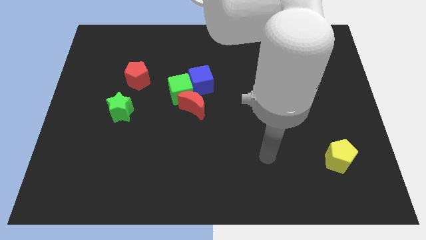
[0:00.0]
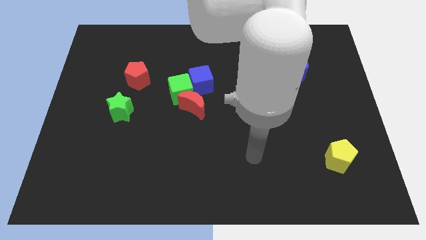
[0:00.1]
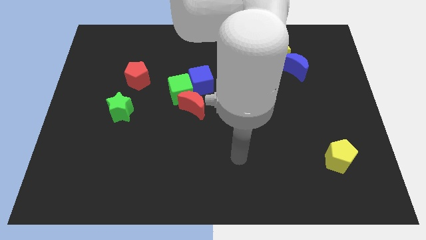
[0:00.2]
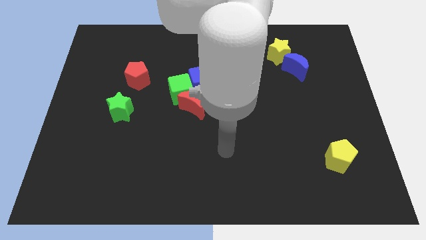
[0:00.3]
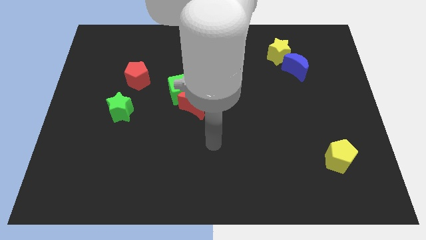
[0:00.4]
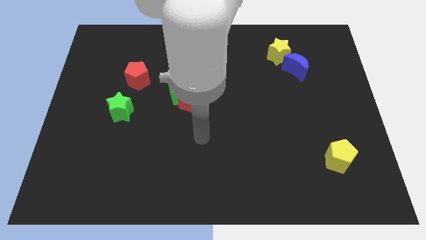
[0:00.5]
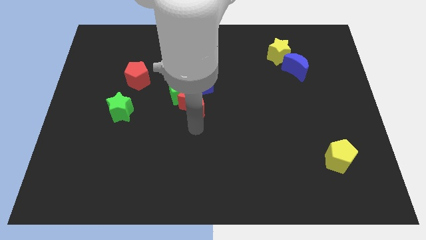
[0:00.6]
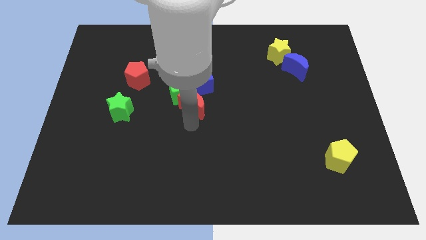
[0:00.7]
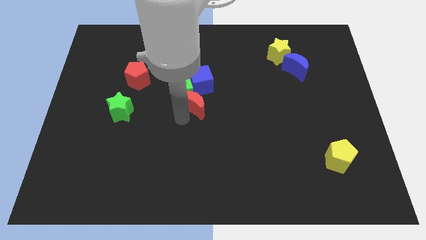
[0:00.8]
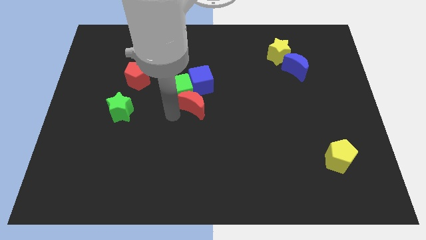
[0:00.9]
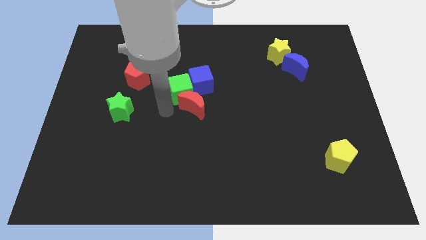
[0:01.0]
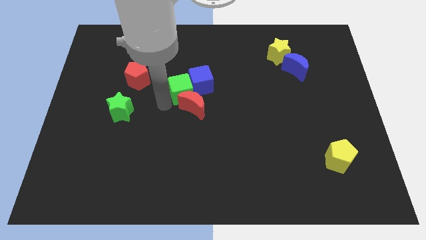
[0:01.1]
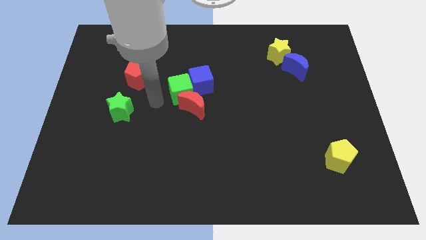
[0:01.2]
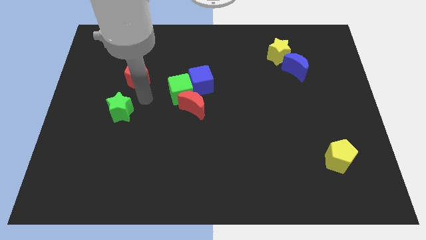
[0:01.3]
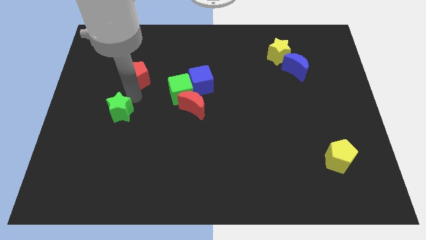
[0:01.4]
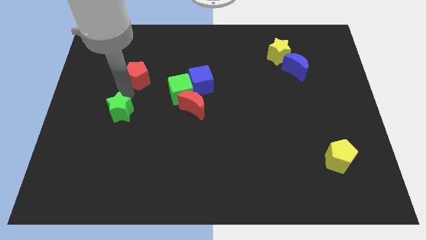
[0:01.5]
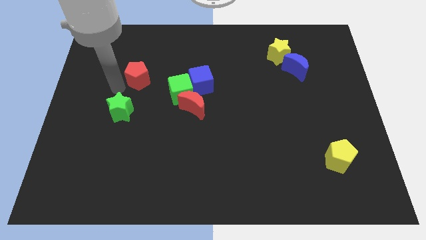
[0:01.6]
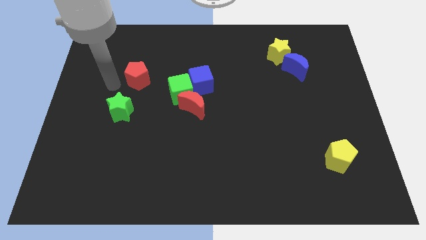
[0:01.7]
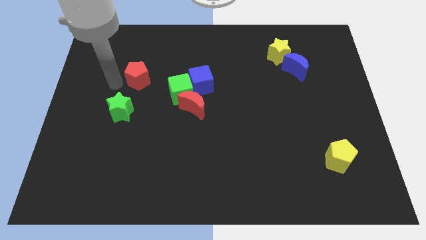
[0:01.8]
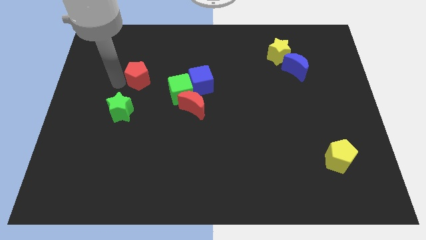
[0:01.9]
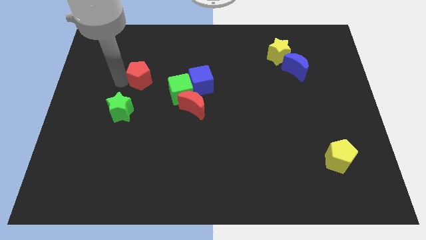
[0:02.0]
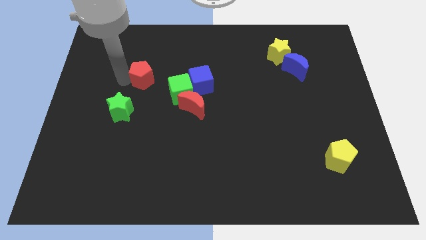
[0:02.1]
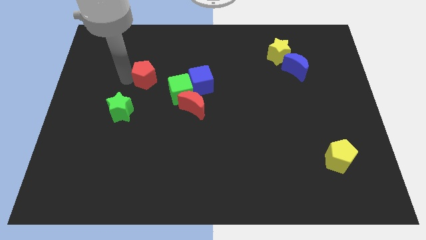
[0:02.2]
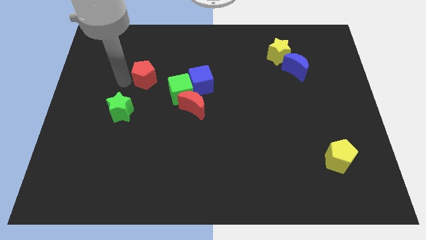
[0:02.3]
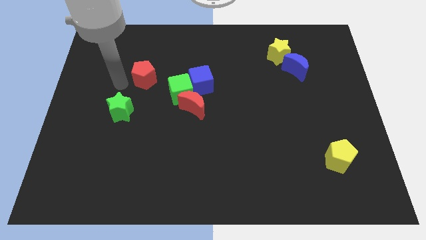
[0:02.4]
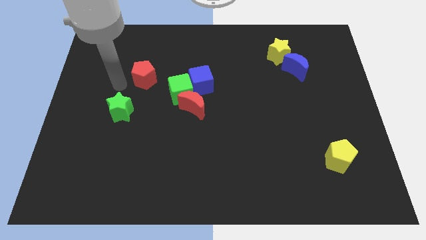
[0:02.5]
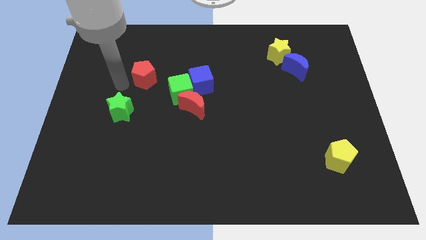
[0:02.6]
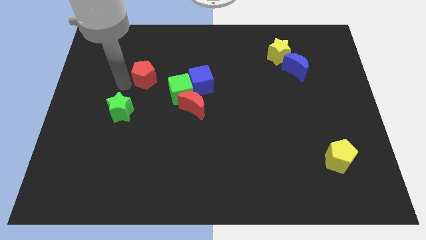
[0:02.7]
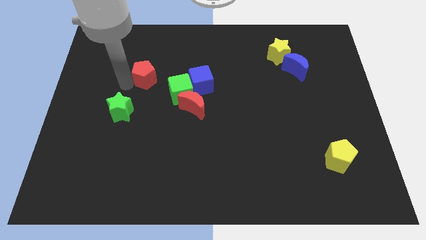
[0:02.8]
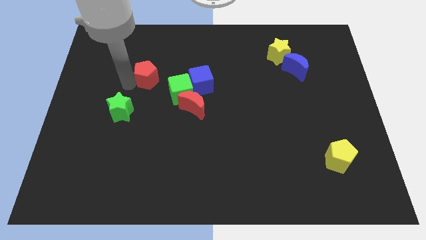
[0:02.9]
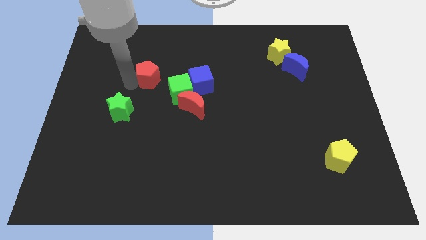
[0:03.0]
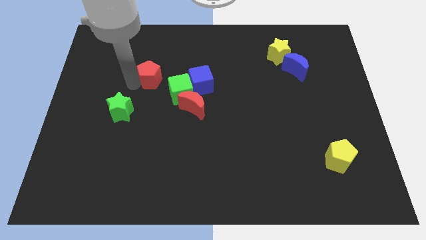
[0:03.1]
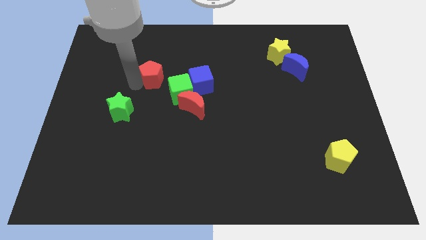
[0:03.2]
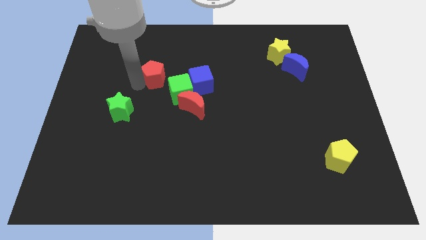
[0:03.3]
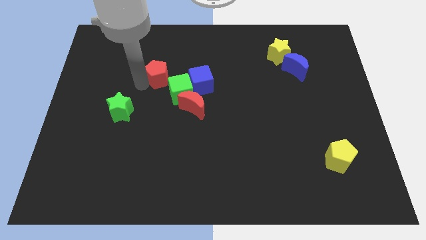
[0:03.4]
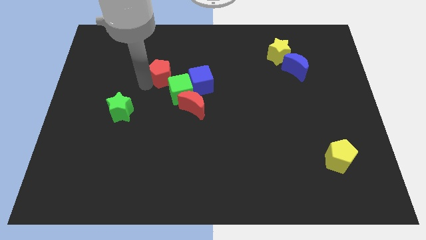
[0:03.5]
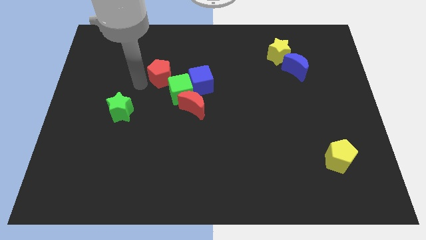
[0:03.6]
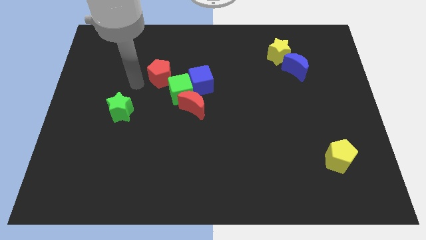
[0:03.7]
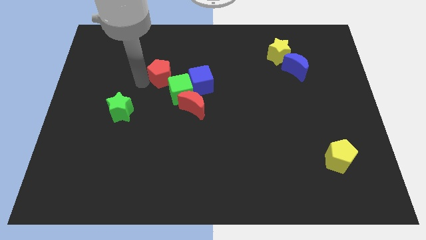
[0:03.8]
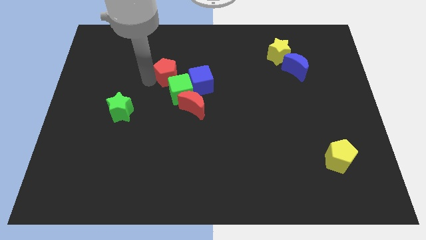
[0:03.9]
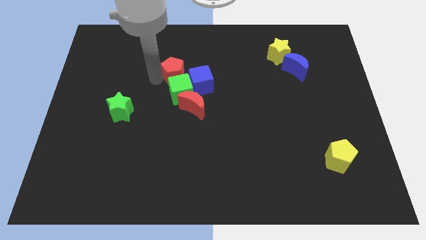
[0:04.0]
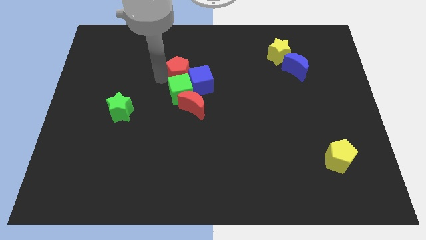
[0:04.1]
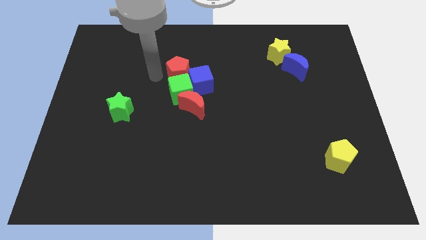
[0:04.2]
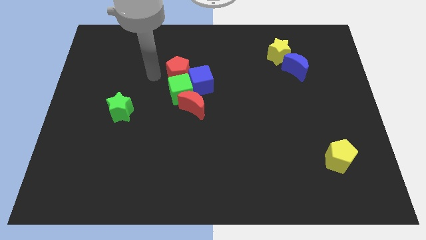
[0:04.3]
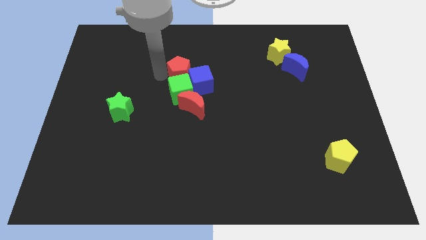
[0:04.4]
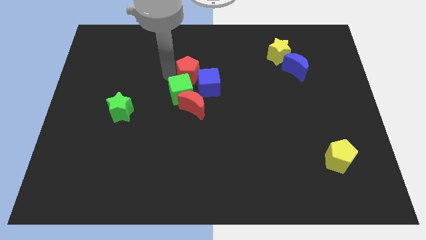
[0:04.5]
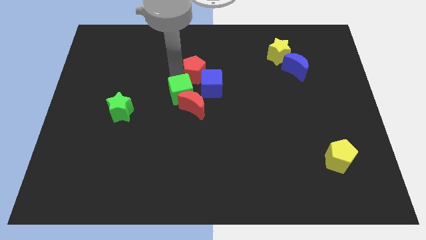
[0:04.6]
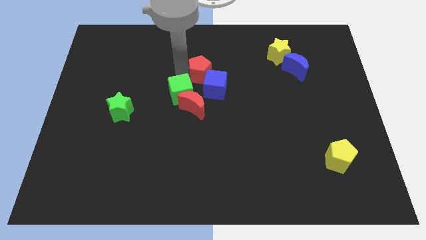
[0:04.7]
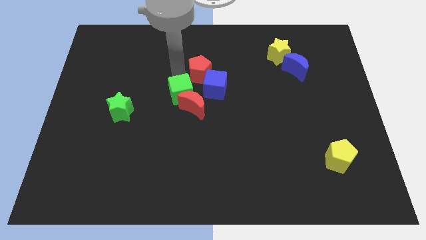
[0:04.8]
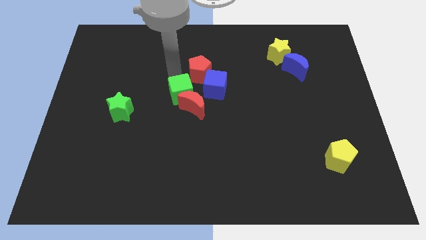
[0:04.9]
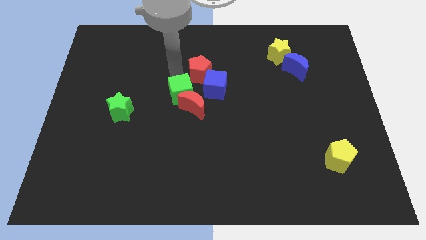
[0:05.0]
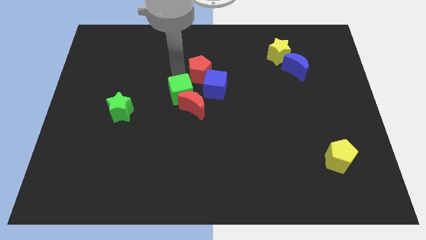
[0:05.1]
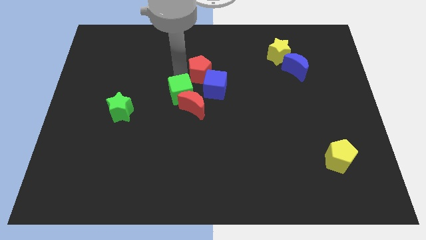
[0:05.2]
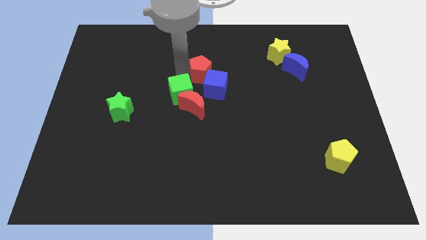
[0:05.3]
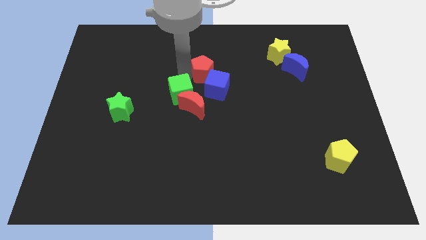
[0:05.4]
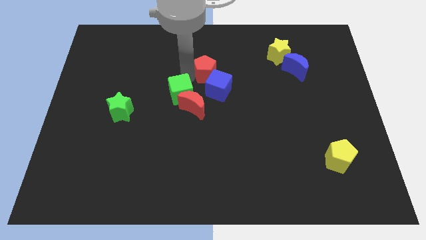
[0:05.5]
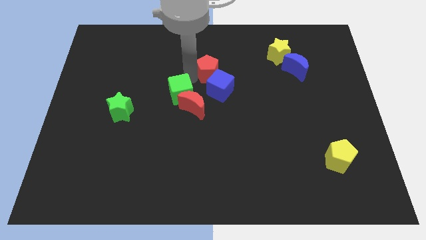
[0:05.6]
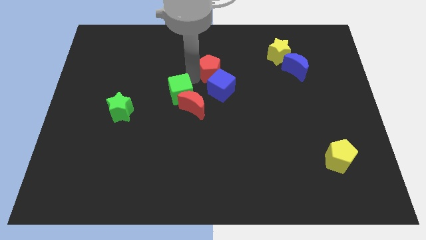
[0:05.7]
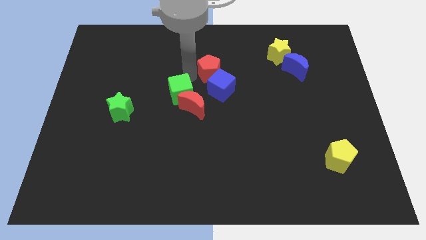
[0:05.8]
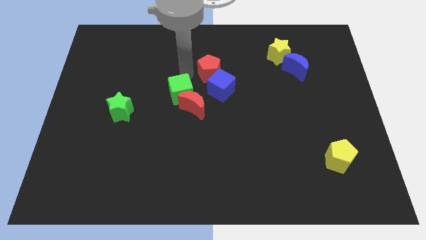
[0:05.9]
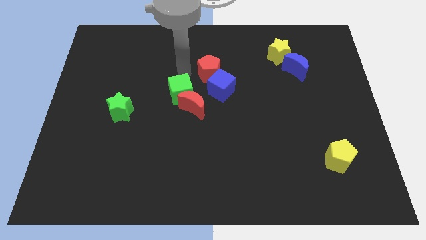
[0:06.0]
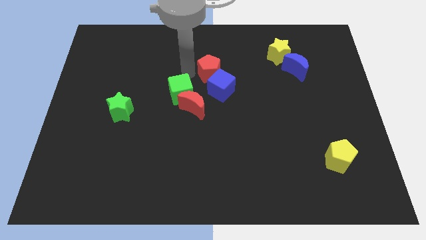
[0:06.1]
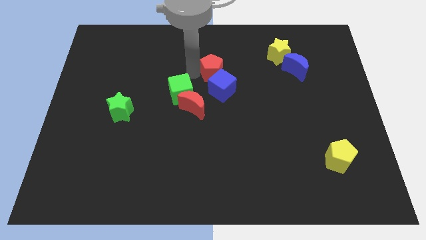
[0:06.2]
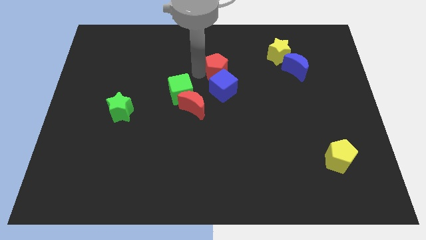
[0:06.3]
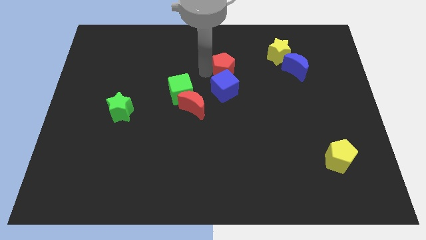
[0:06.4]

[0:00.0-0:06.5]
slide the red pentagon to the right

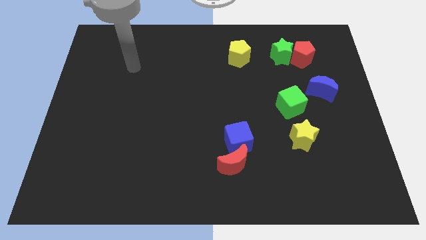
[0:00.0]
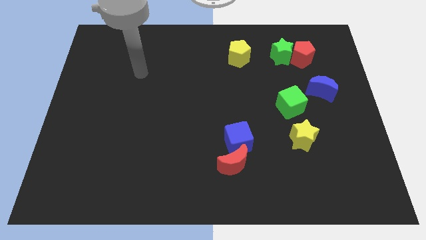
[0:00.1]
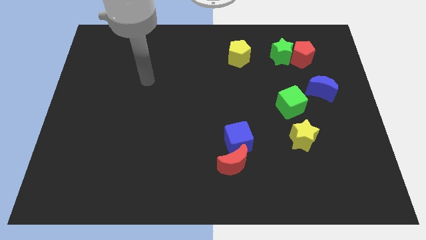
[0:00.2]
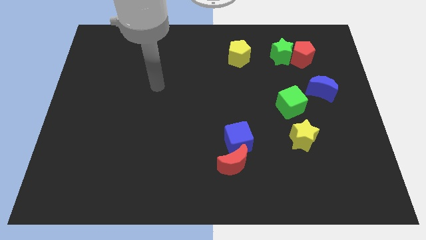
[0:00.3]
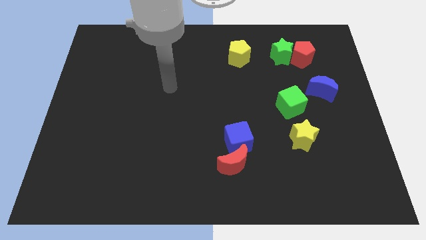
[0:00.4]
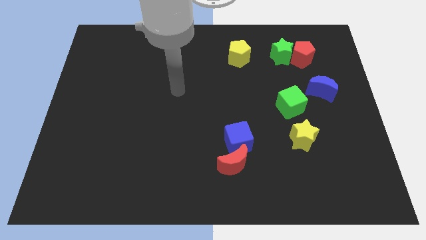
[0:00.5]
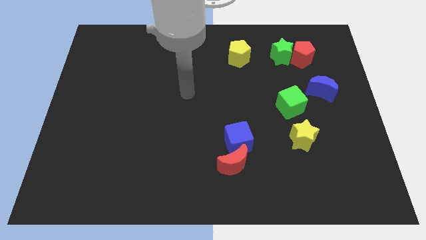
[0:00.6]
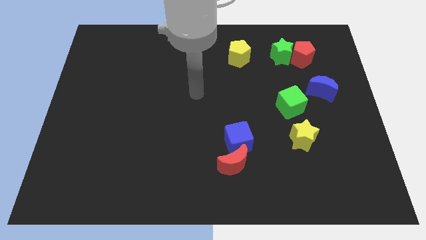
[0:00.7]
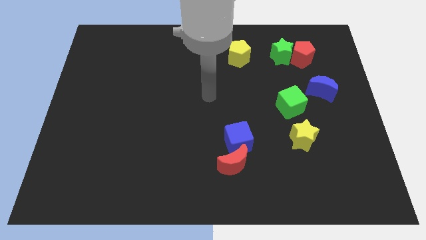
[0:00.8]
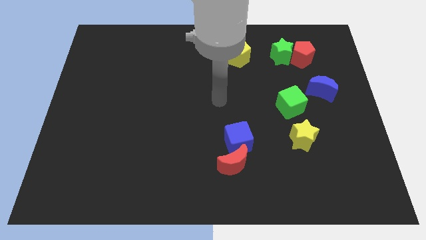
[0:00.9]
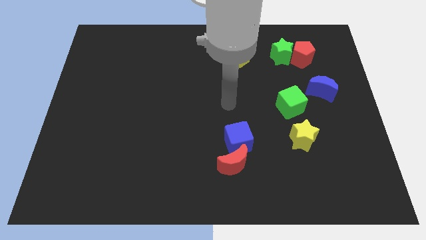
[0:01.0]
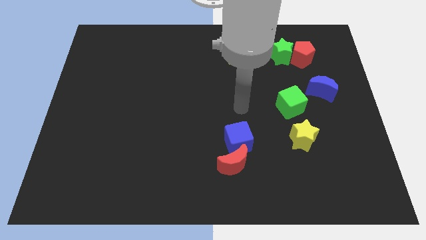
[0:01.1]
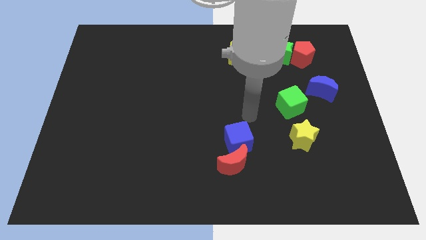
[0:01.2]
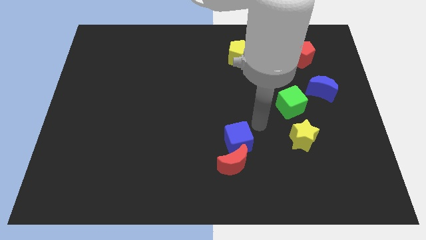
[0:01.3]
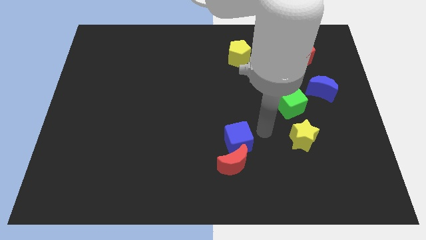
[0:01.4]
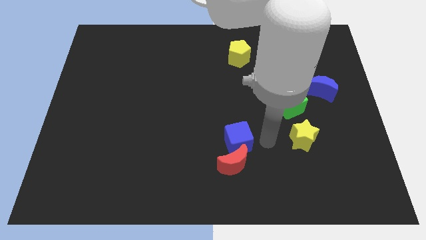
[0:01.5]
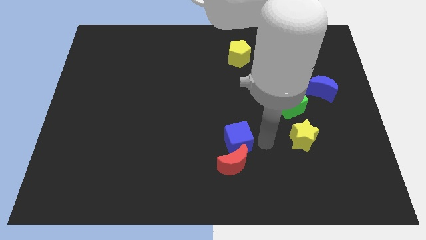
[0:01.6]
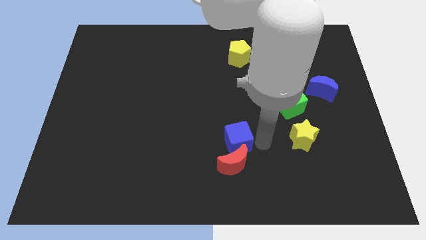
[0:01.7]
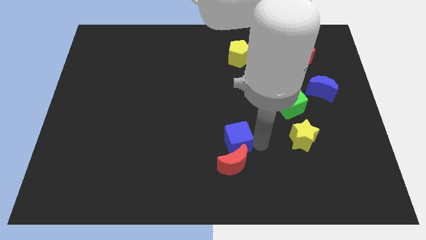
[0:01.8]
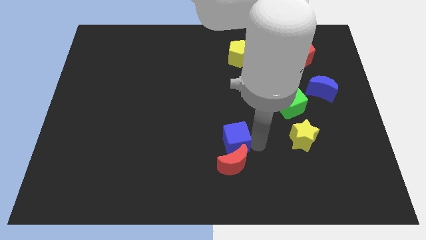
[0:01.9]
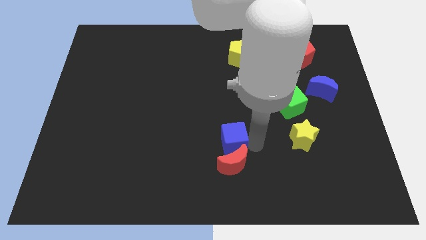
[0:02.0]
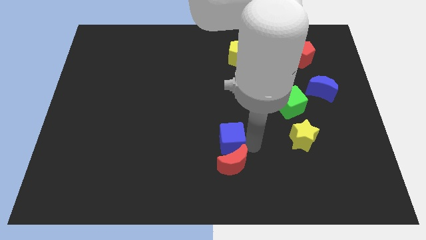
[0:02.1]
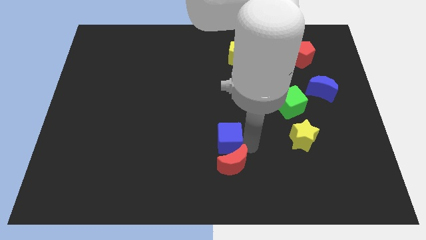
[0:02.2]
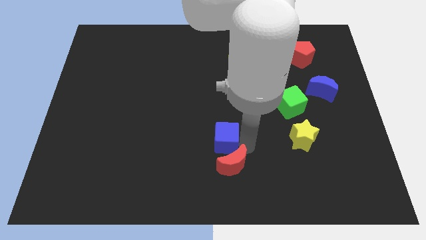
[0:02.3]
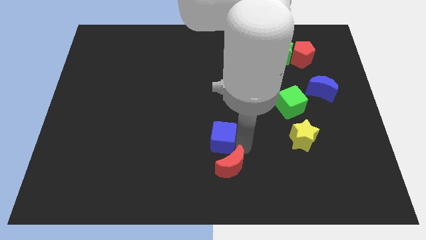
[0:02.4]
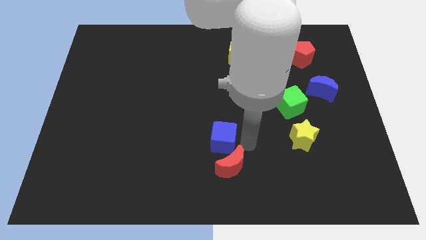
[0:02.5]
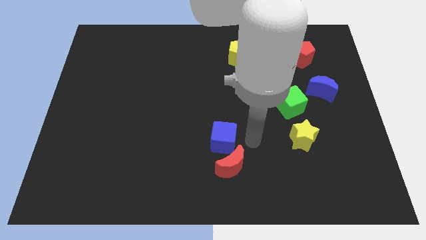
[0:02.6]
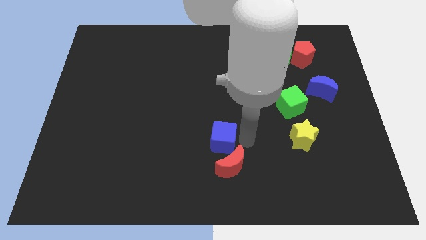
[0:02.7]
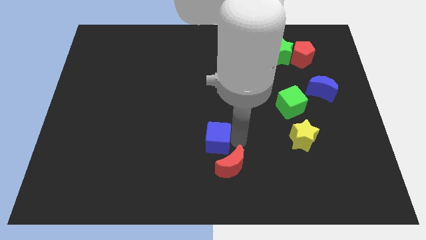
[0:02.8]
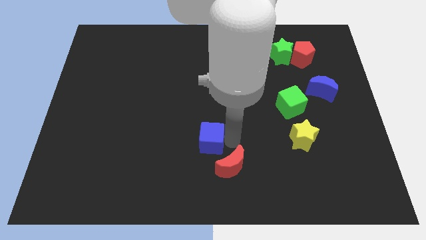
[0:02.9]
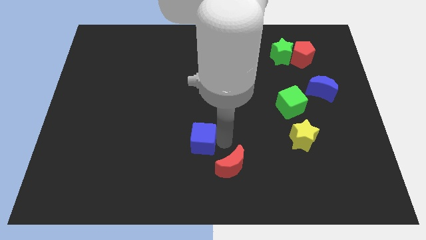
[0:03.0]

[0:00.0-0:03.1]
move the blue cube a little left
